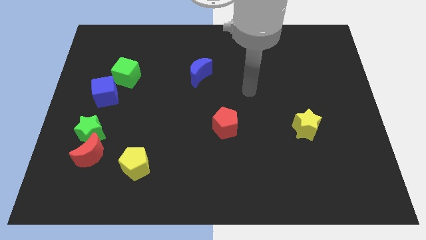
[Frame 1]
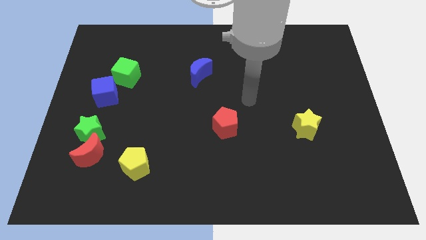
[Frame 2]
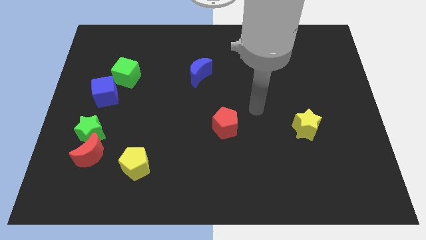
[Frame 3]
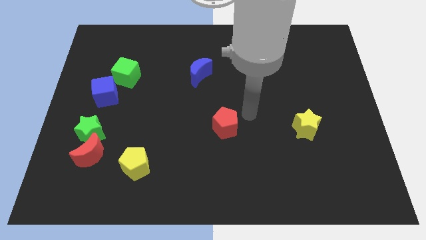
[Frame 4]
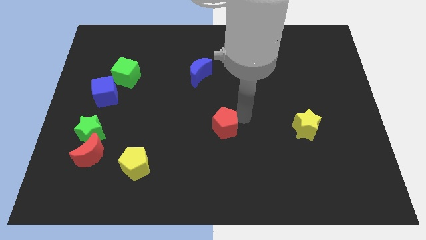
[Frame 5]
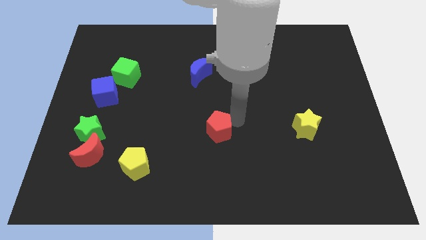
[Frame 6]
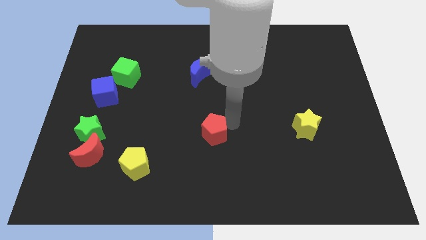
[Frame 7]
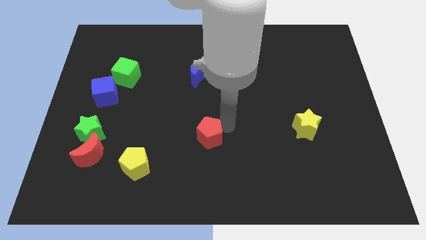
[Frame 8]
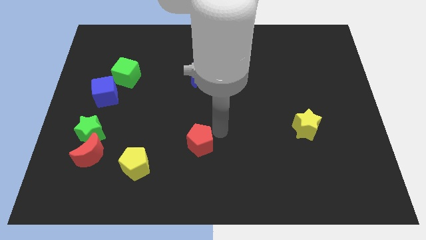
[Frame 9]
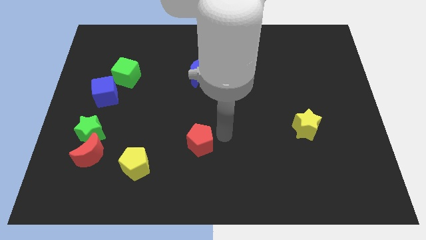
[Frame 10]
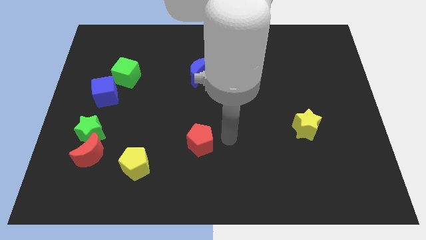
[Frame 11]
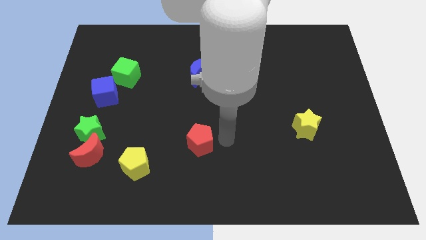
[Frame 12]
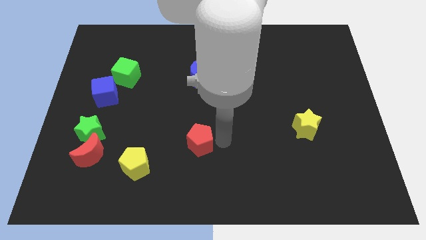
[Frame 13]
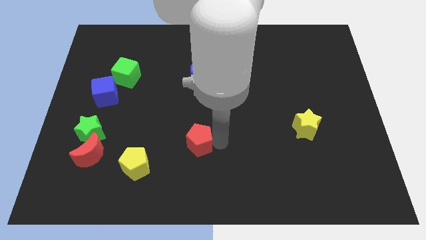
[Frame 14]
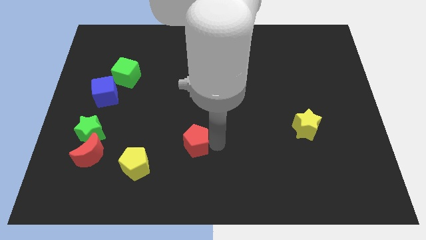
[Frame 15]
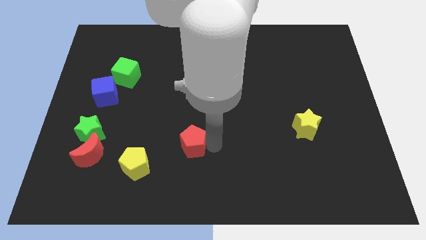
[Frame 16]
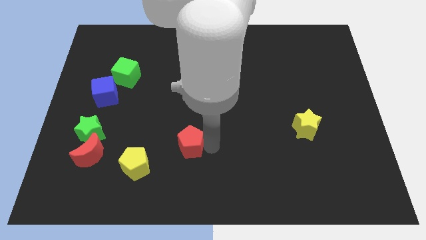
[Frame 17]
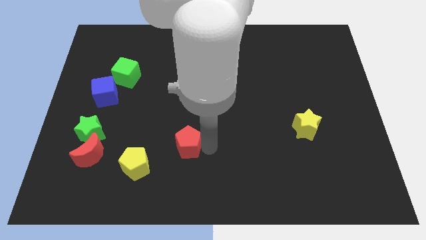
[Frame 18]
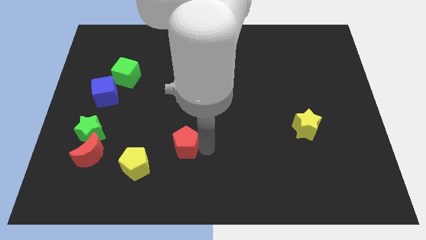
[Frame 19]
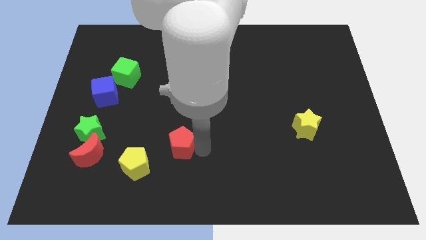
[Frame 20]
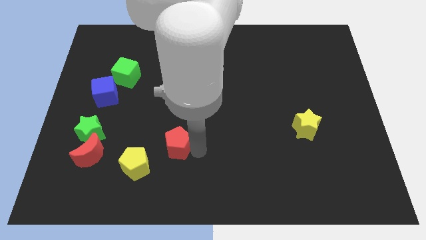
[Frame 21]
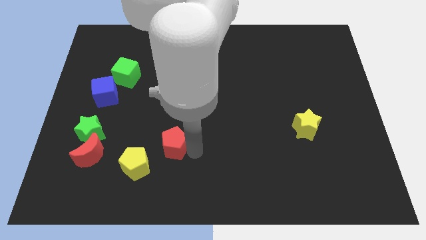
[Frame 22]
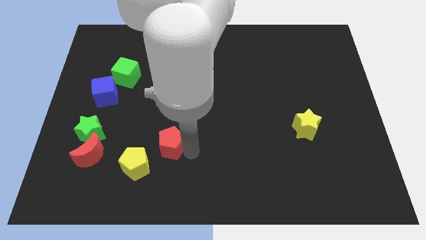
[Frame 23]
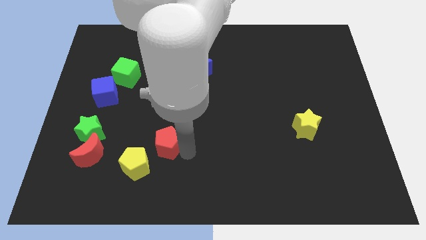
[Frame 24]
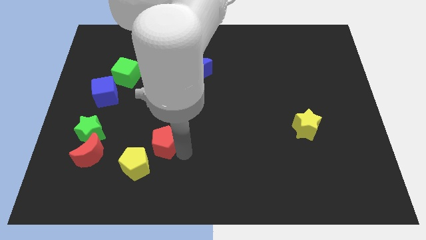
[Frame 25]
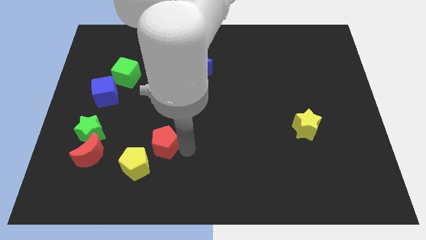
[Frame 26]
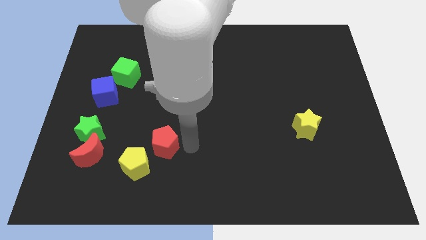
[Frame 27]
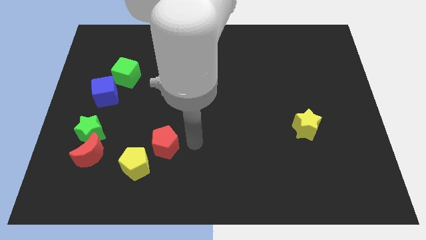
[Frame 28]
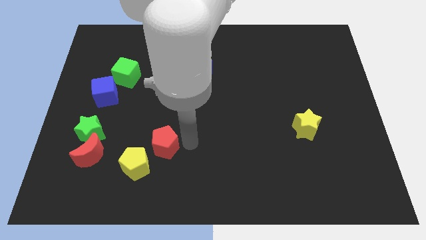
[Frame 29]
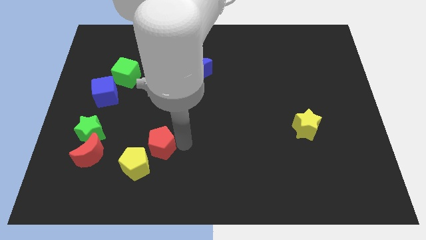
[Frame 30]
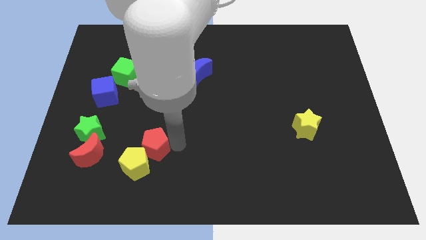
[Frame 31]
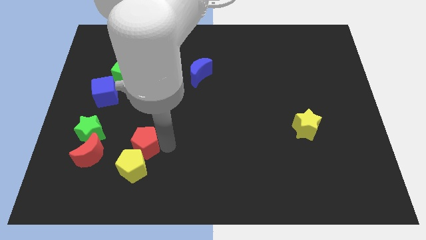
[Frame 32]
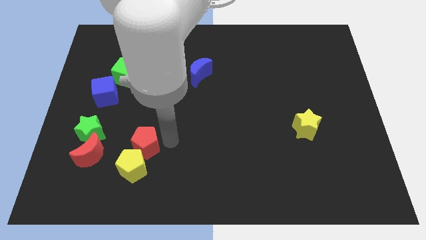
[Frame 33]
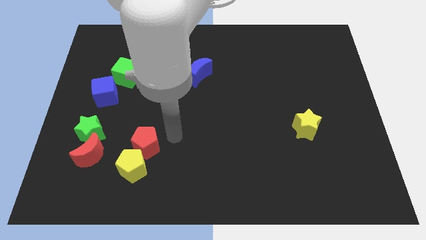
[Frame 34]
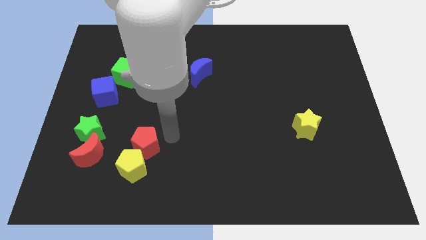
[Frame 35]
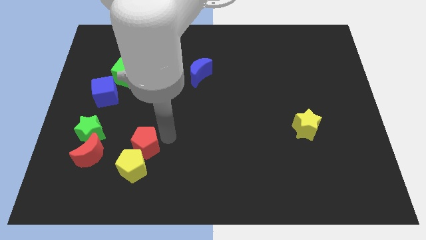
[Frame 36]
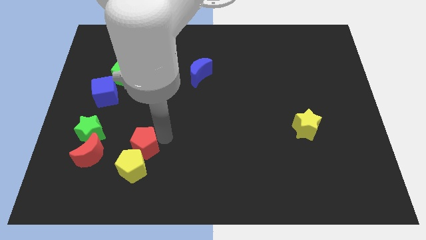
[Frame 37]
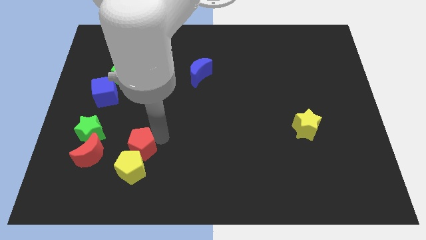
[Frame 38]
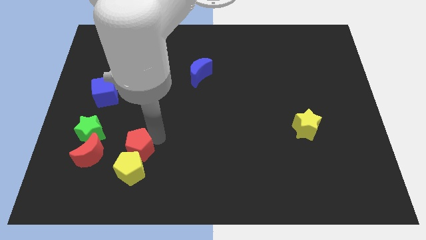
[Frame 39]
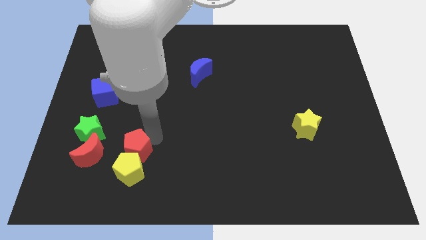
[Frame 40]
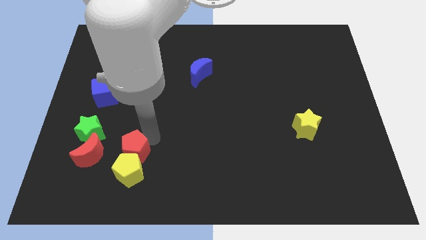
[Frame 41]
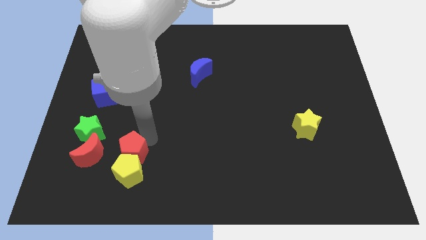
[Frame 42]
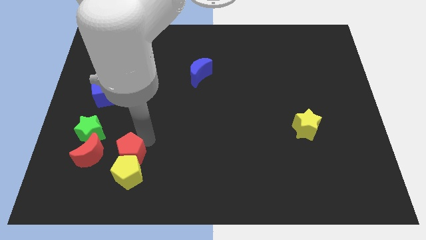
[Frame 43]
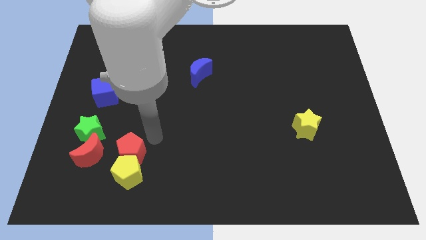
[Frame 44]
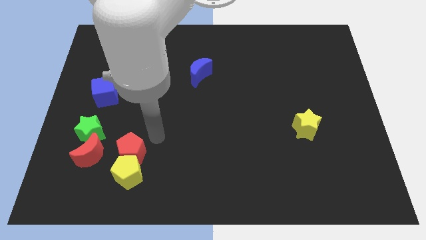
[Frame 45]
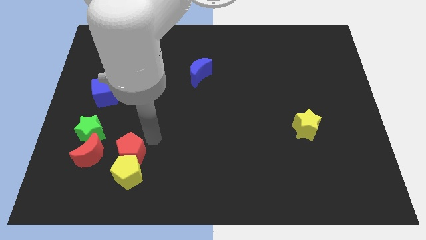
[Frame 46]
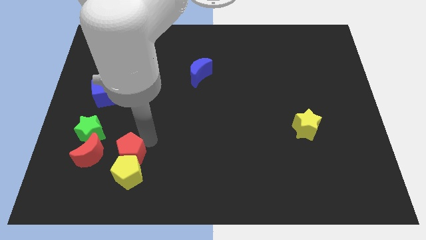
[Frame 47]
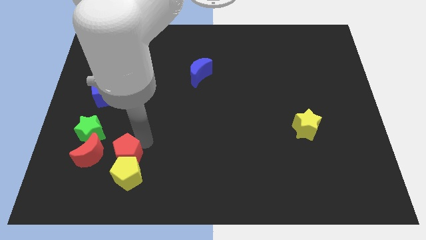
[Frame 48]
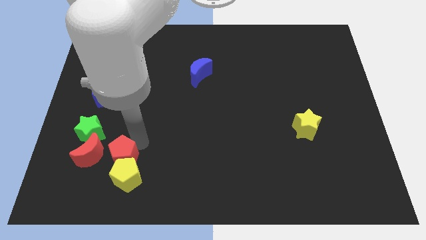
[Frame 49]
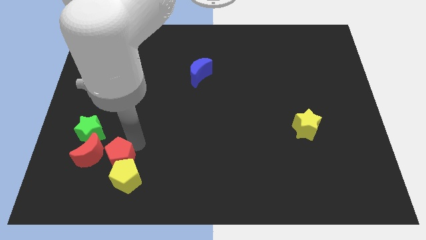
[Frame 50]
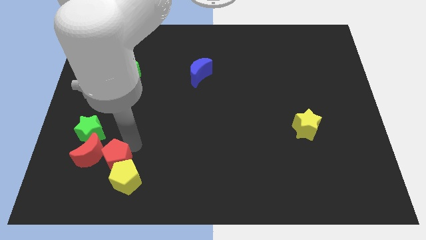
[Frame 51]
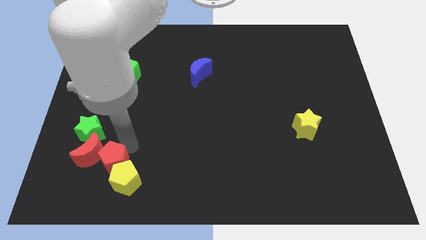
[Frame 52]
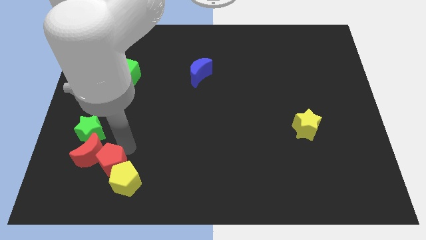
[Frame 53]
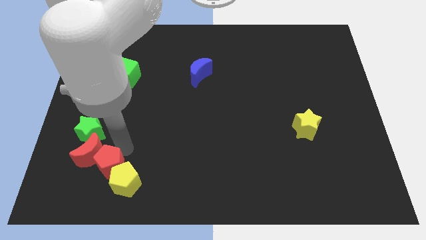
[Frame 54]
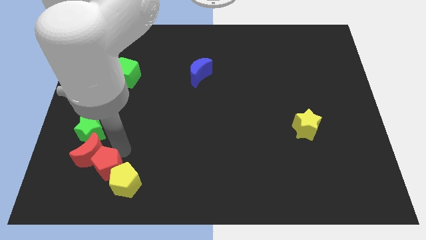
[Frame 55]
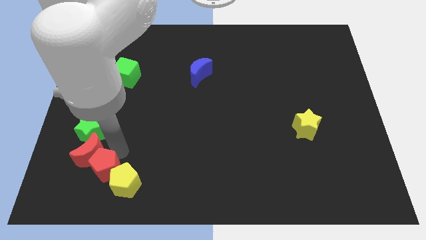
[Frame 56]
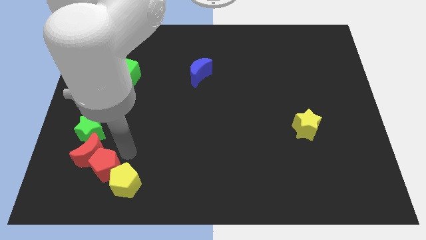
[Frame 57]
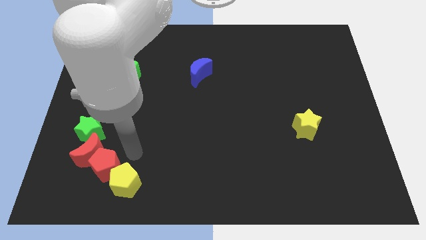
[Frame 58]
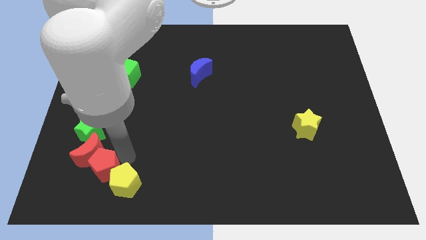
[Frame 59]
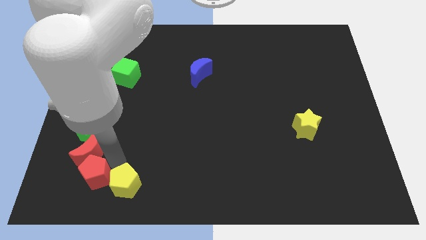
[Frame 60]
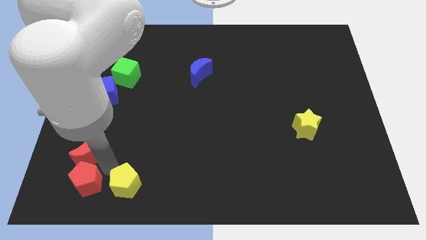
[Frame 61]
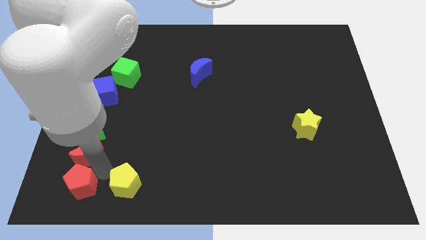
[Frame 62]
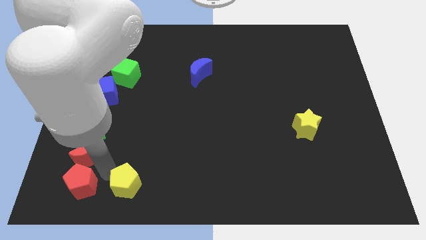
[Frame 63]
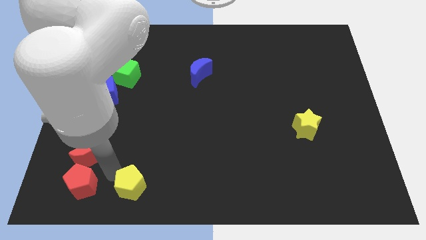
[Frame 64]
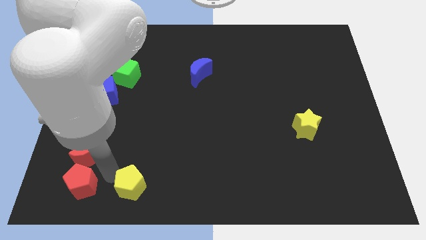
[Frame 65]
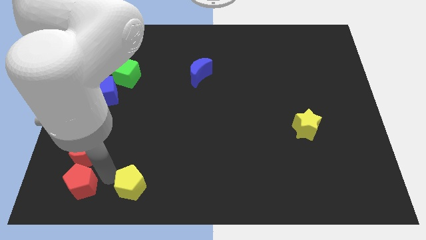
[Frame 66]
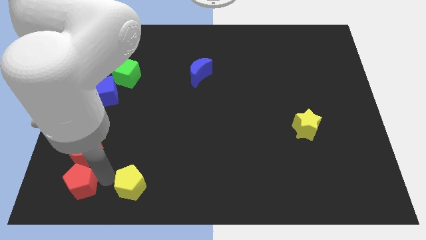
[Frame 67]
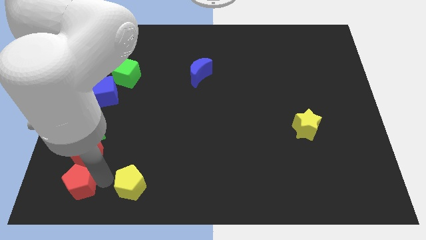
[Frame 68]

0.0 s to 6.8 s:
put the red pentagon to the bottom left corner

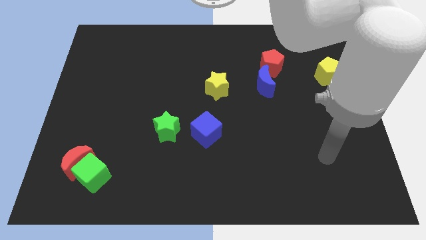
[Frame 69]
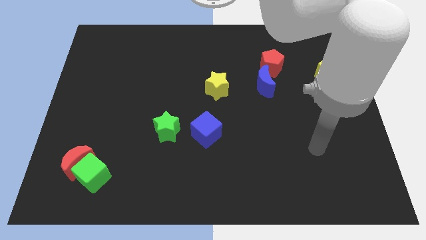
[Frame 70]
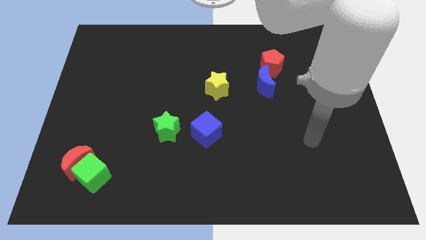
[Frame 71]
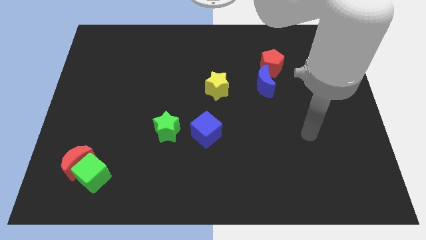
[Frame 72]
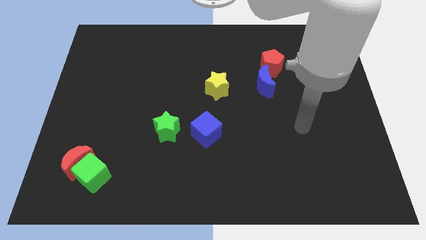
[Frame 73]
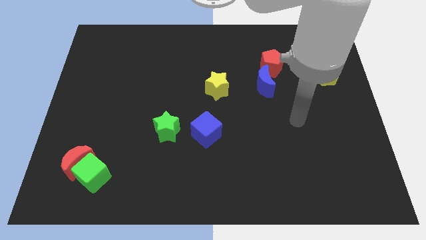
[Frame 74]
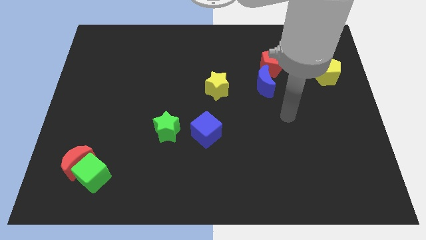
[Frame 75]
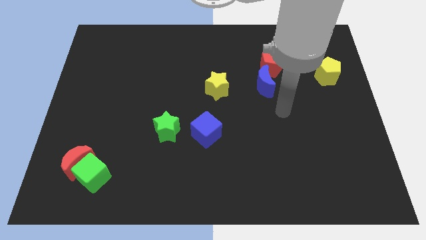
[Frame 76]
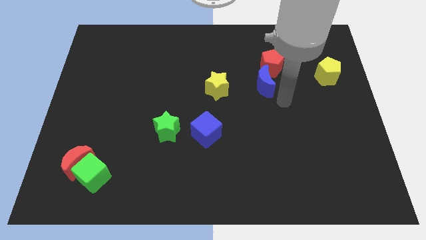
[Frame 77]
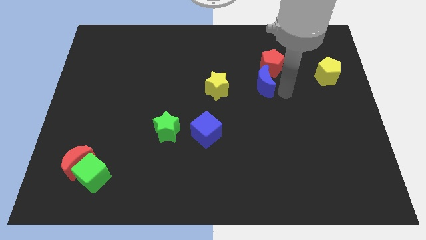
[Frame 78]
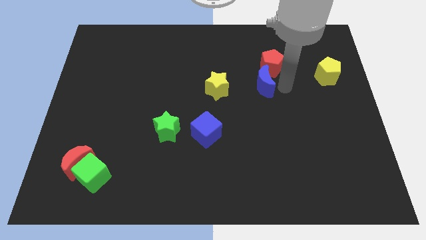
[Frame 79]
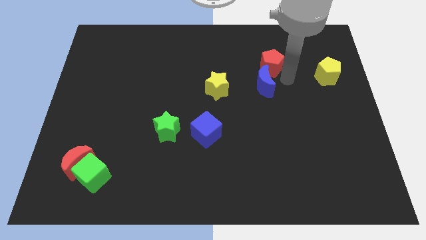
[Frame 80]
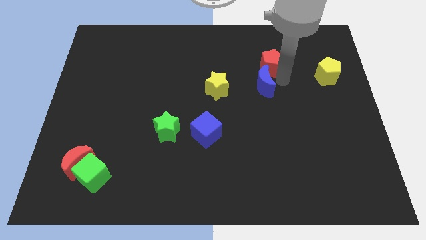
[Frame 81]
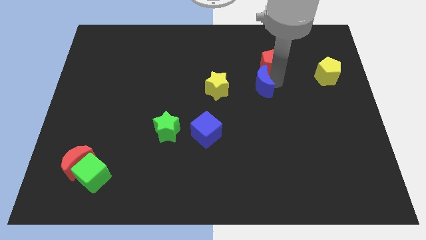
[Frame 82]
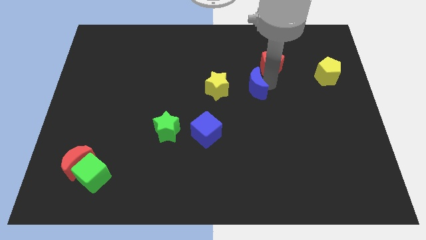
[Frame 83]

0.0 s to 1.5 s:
move the blue moon to the center
